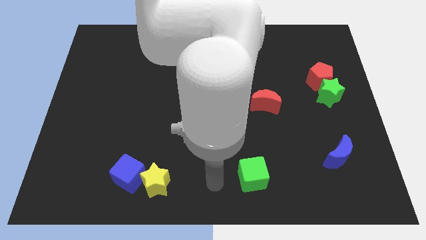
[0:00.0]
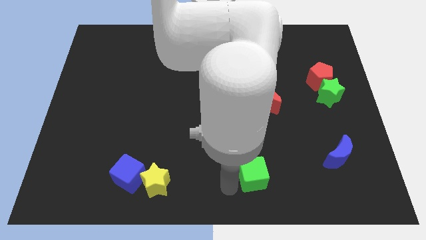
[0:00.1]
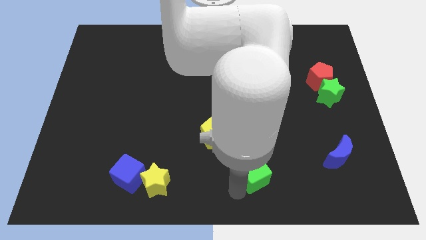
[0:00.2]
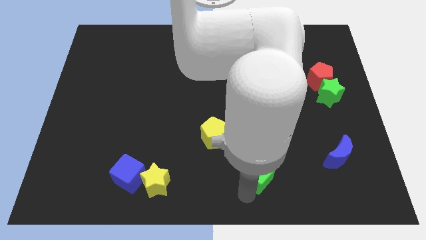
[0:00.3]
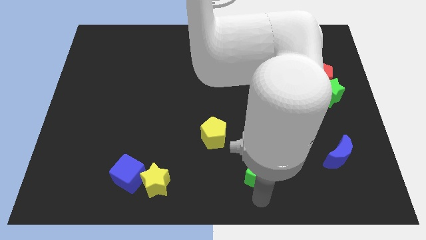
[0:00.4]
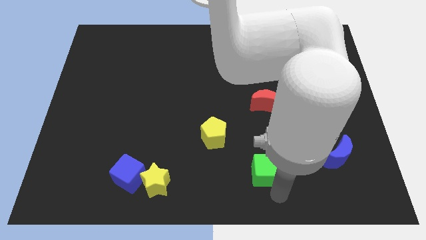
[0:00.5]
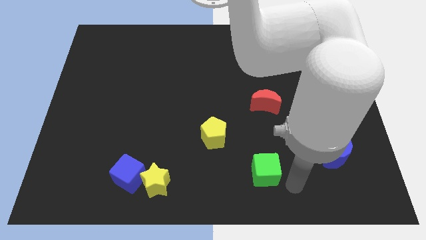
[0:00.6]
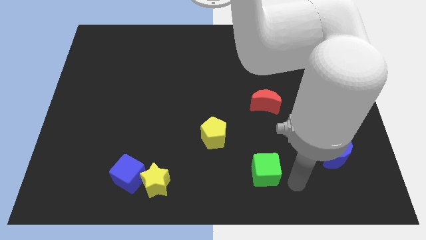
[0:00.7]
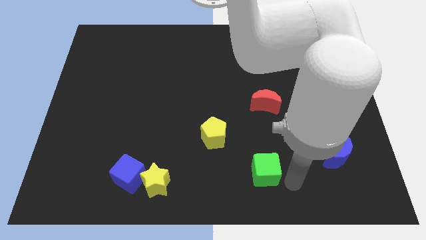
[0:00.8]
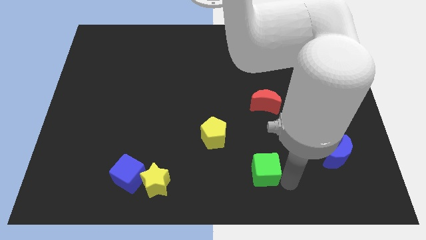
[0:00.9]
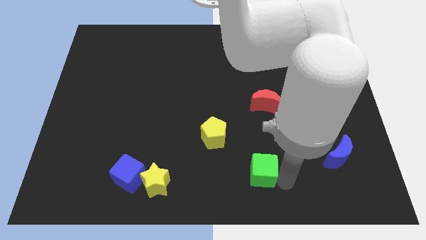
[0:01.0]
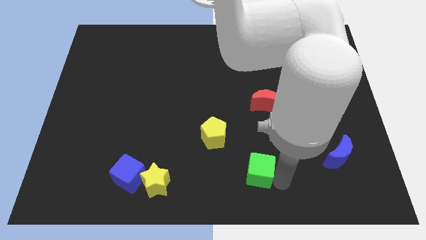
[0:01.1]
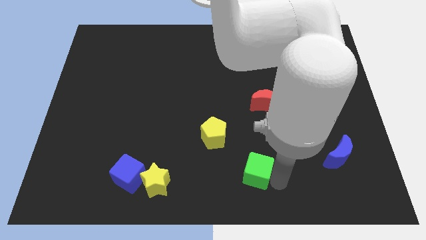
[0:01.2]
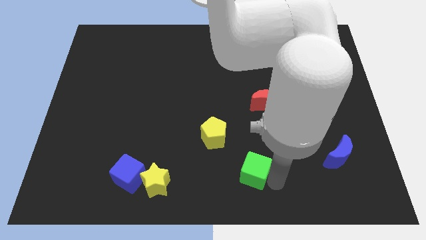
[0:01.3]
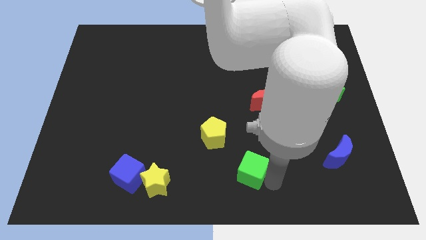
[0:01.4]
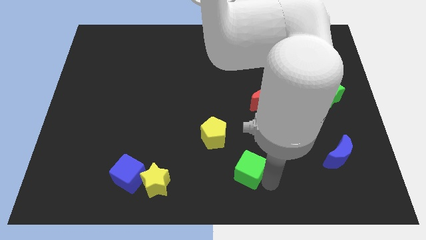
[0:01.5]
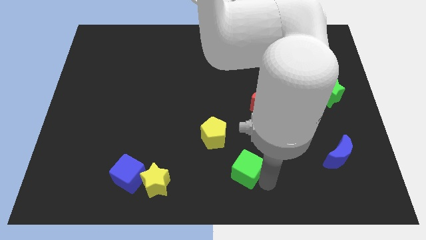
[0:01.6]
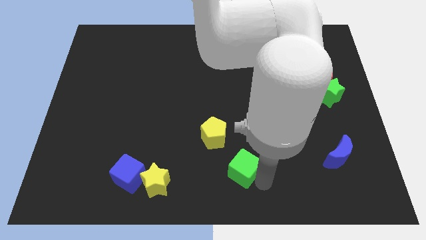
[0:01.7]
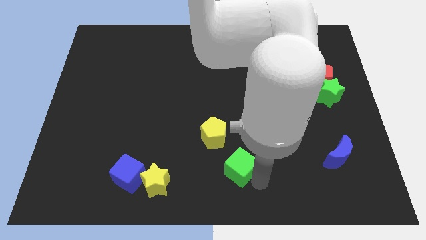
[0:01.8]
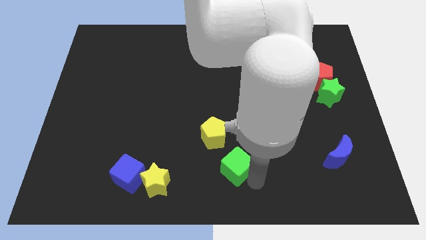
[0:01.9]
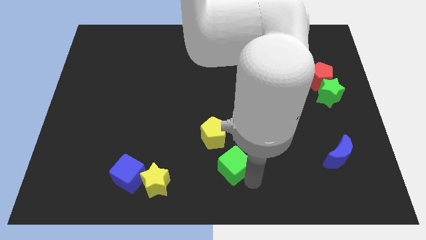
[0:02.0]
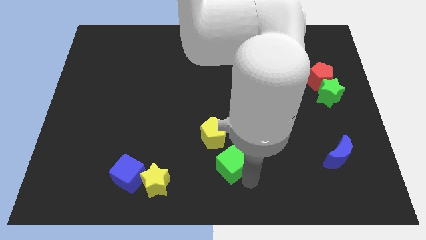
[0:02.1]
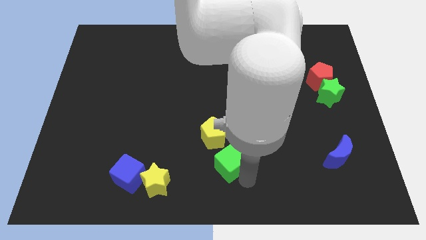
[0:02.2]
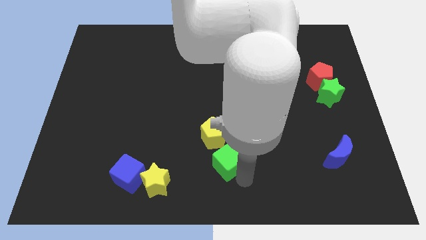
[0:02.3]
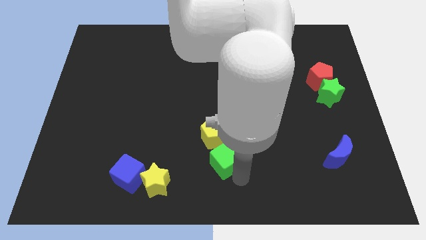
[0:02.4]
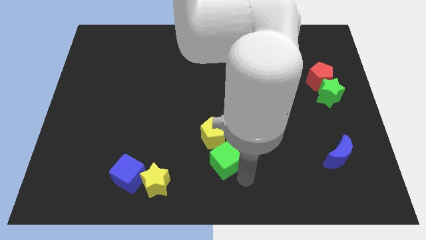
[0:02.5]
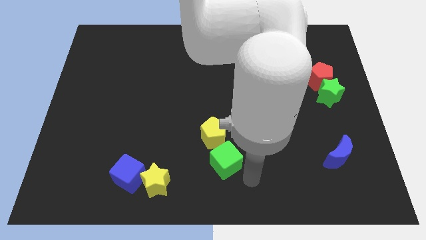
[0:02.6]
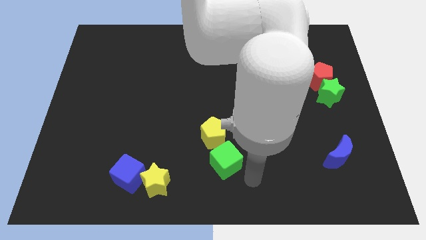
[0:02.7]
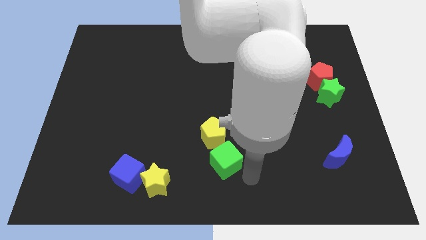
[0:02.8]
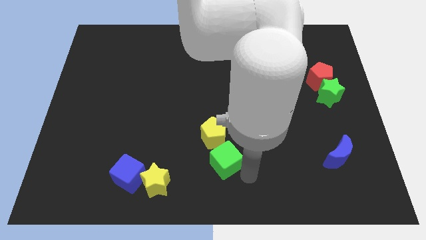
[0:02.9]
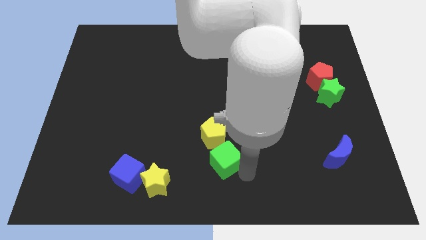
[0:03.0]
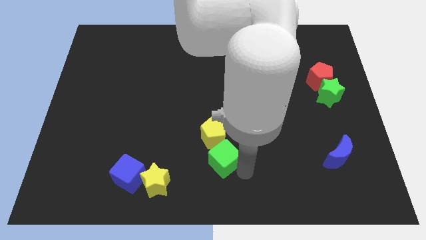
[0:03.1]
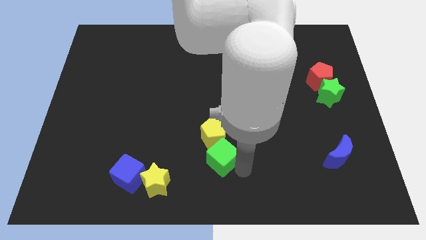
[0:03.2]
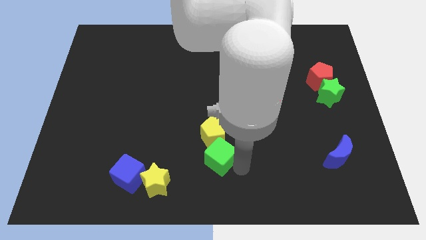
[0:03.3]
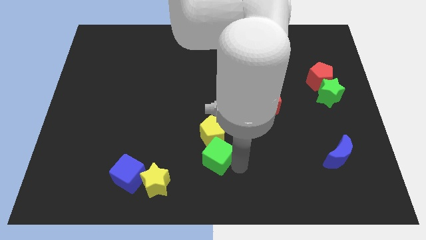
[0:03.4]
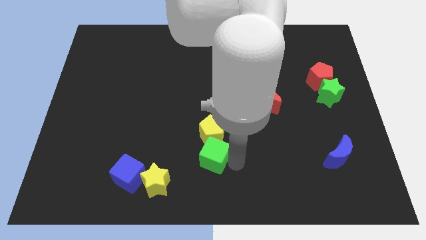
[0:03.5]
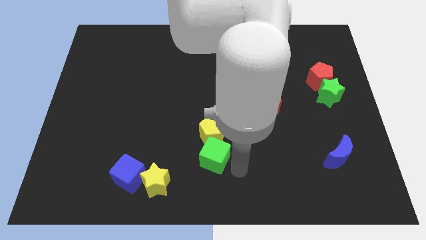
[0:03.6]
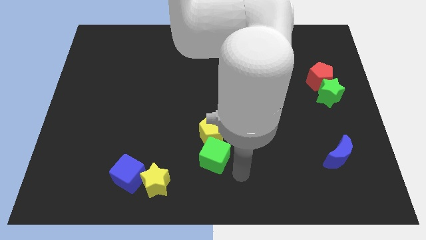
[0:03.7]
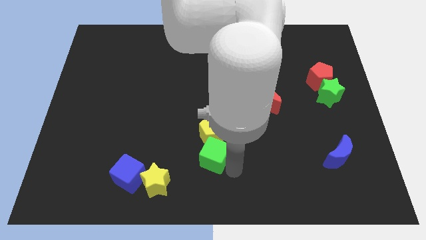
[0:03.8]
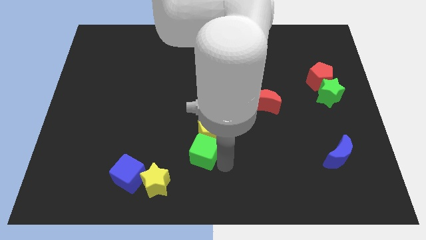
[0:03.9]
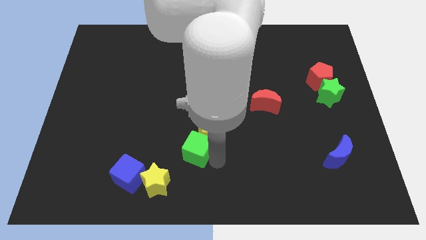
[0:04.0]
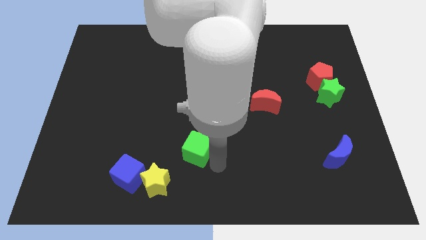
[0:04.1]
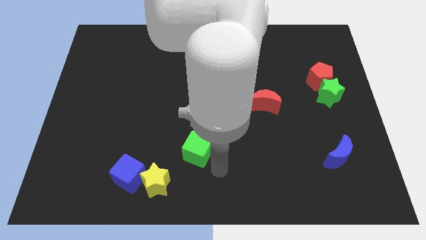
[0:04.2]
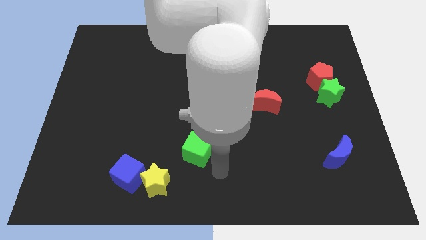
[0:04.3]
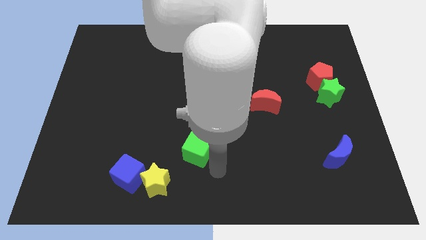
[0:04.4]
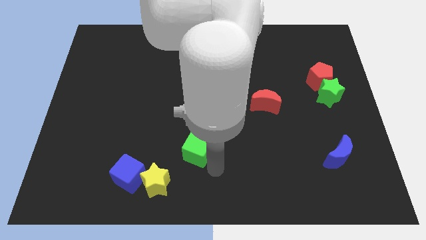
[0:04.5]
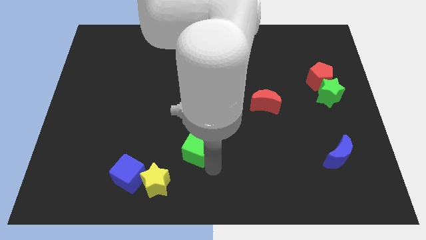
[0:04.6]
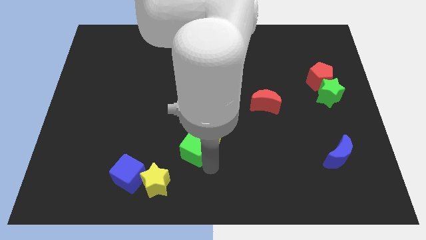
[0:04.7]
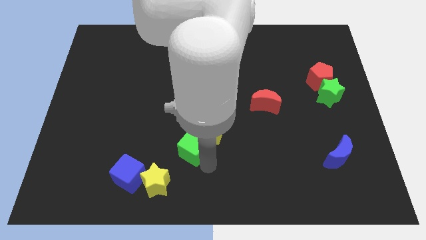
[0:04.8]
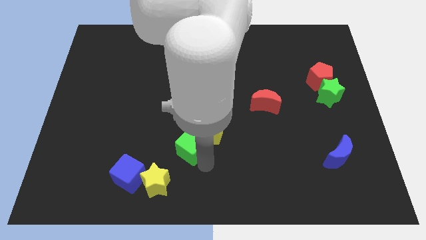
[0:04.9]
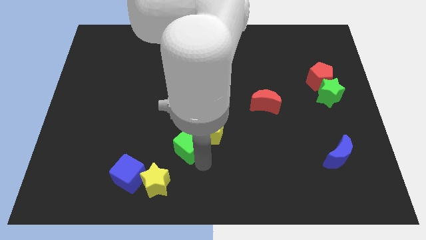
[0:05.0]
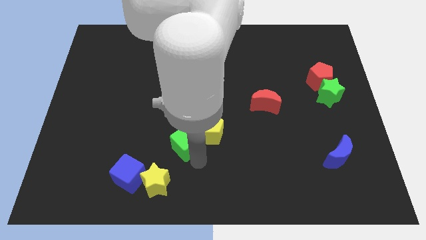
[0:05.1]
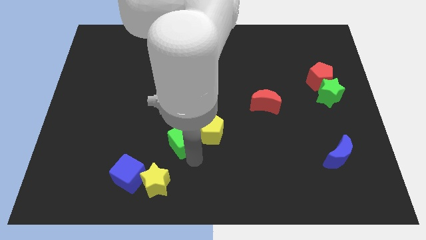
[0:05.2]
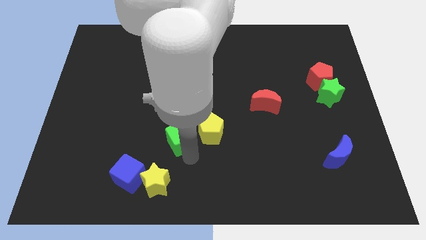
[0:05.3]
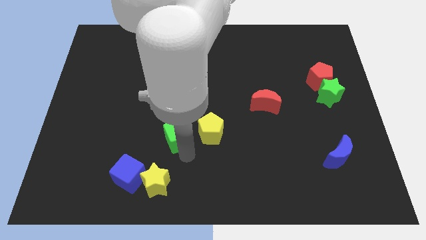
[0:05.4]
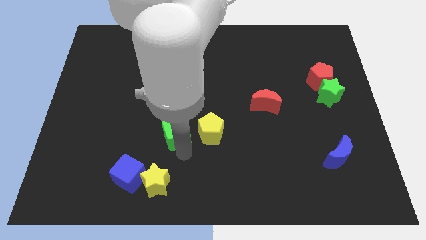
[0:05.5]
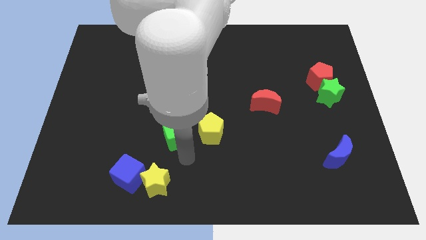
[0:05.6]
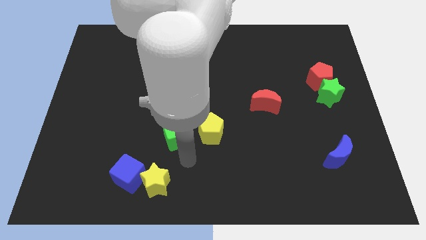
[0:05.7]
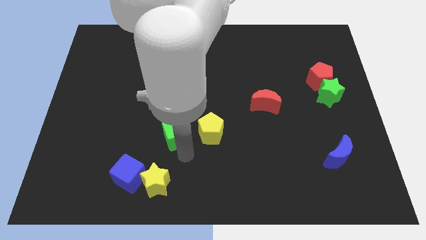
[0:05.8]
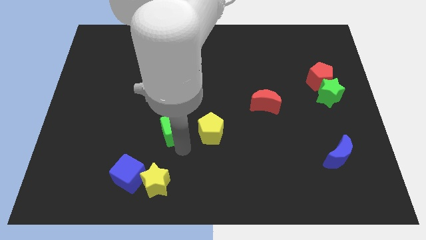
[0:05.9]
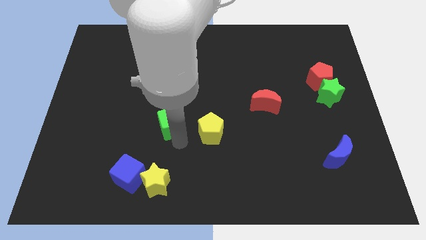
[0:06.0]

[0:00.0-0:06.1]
slide the green cube diagonally upwards and left

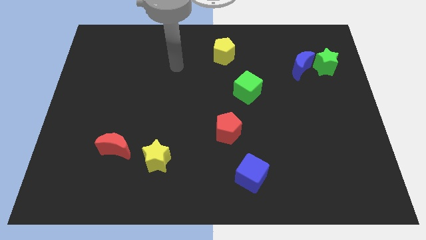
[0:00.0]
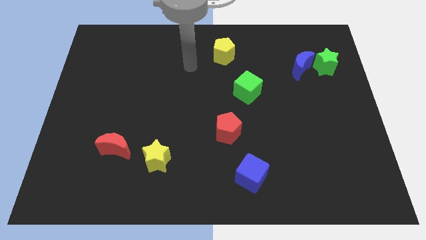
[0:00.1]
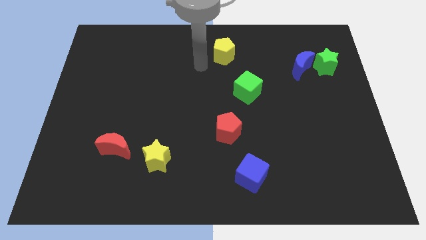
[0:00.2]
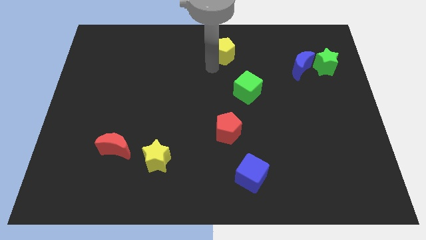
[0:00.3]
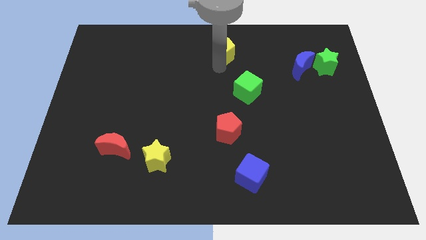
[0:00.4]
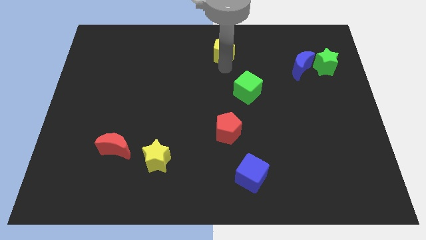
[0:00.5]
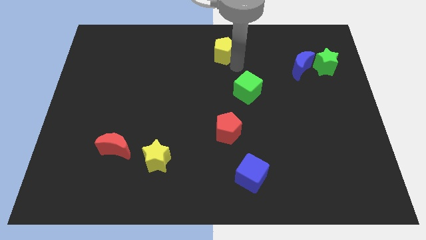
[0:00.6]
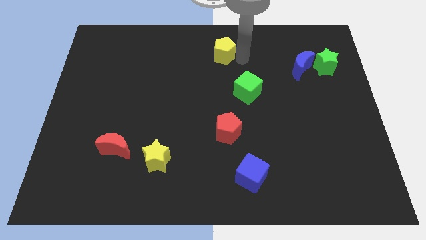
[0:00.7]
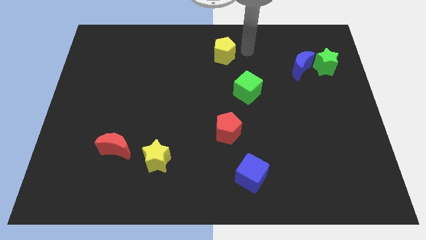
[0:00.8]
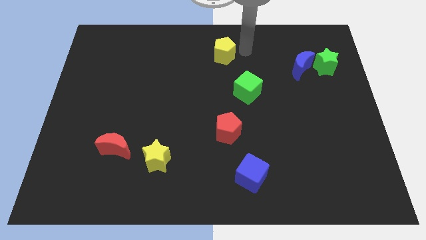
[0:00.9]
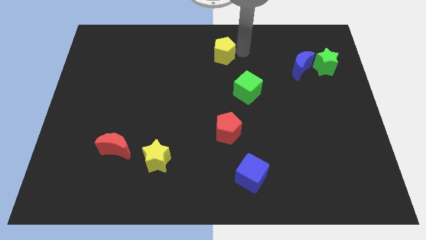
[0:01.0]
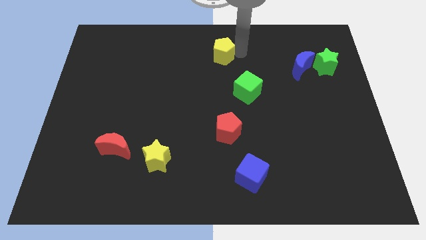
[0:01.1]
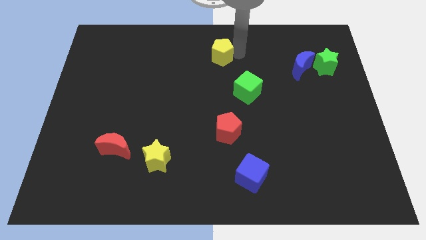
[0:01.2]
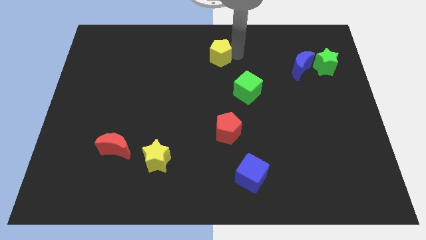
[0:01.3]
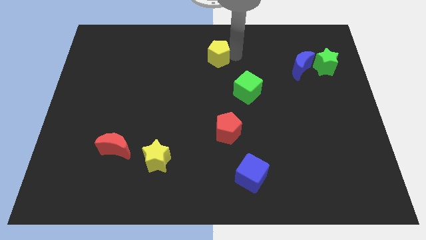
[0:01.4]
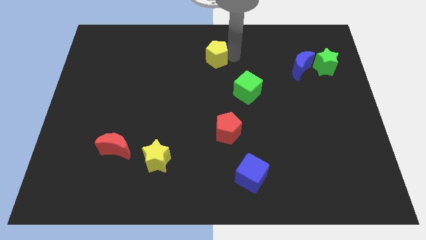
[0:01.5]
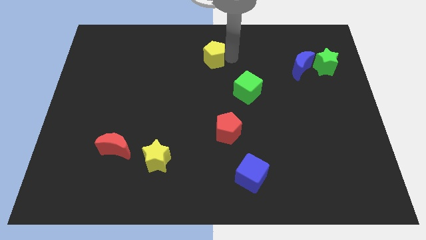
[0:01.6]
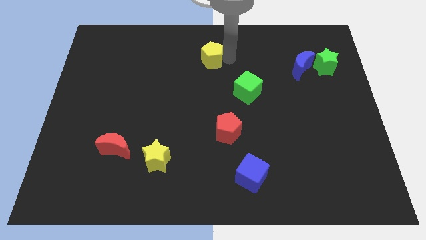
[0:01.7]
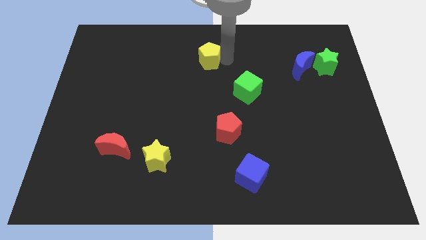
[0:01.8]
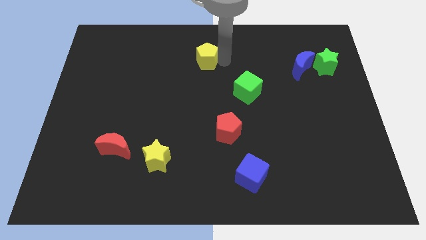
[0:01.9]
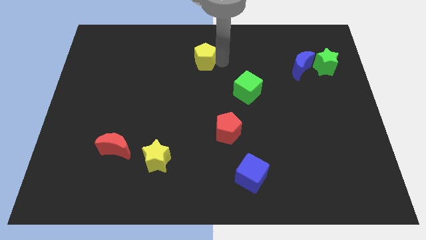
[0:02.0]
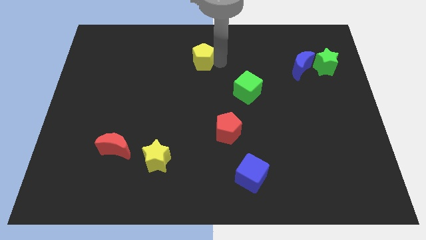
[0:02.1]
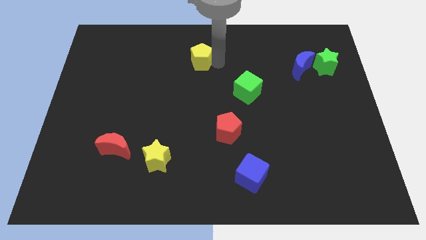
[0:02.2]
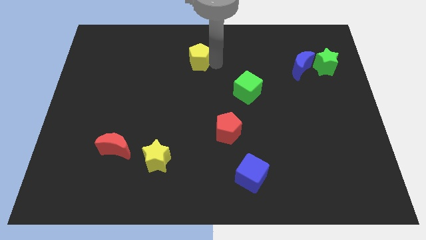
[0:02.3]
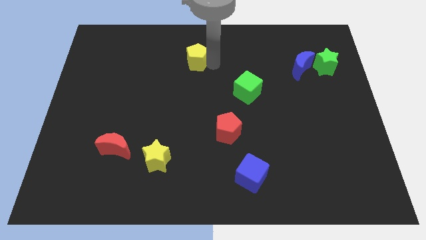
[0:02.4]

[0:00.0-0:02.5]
slide the yellow pentagon a little bit to the left
